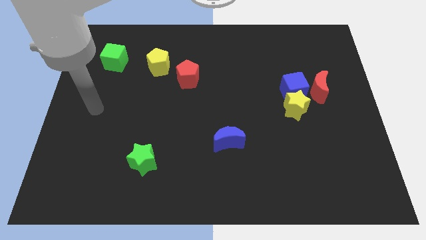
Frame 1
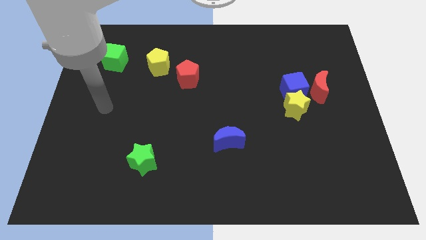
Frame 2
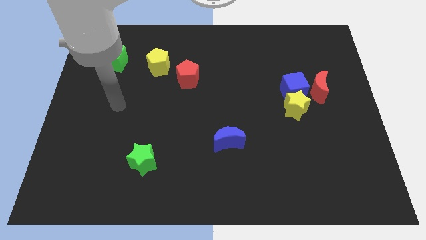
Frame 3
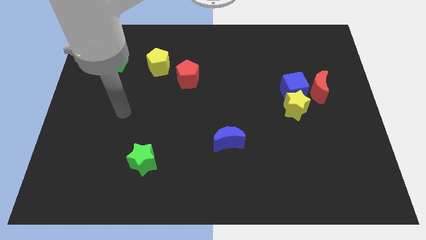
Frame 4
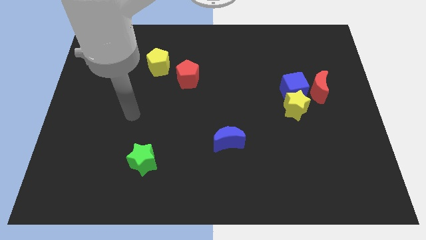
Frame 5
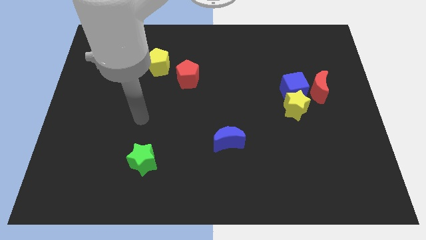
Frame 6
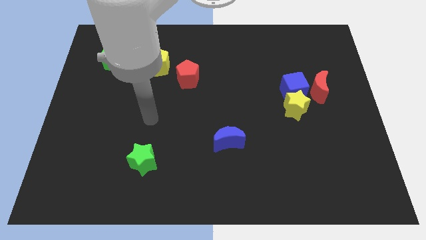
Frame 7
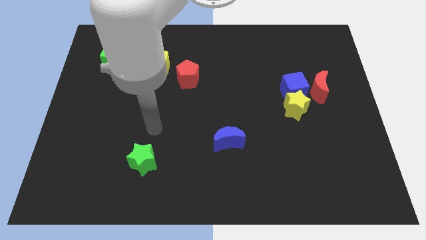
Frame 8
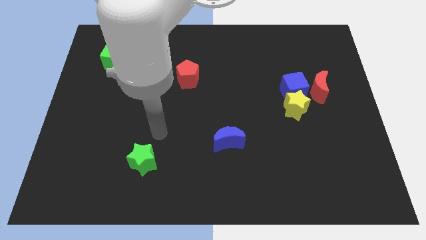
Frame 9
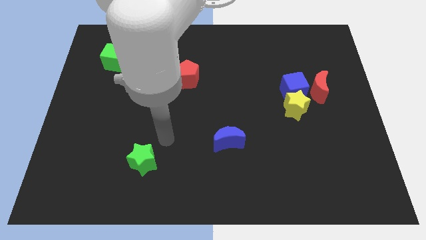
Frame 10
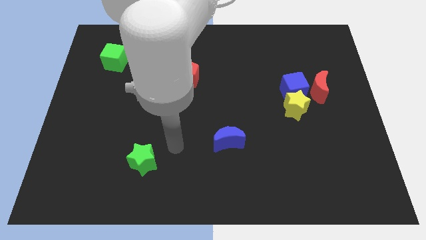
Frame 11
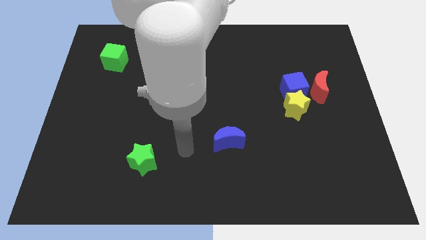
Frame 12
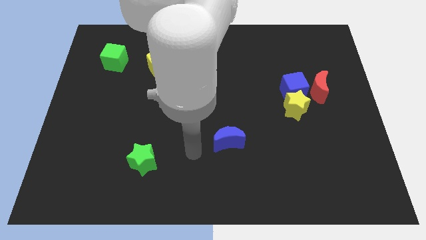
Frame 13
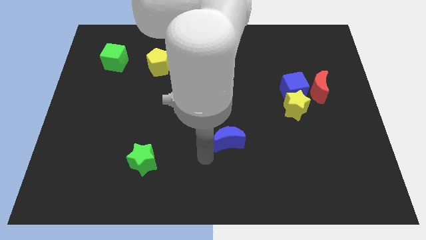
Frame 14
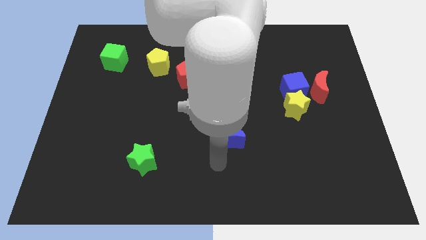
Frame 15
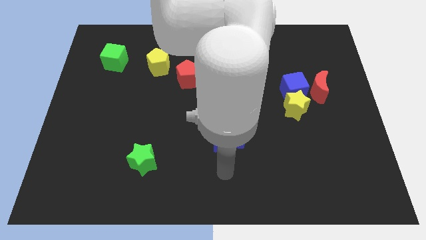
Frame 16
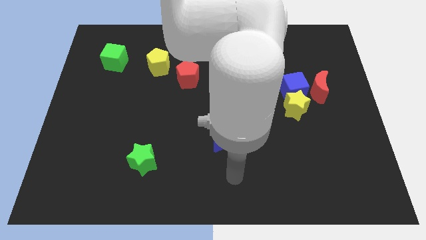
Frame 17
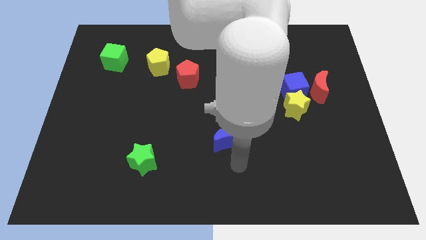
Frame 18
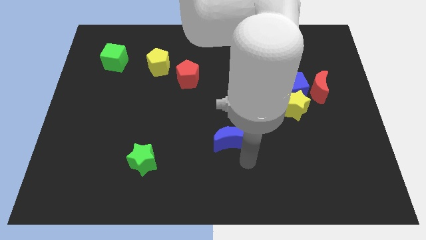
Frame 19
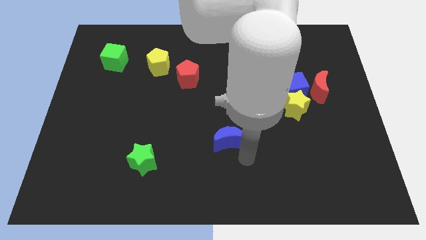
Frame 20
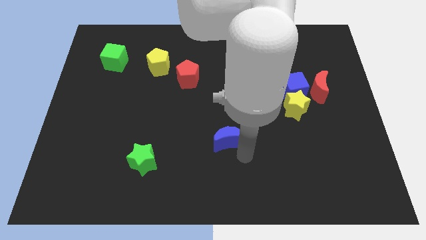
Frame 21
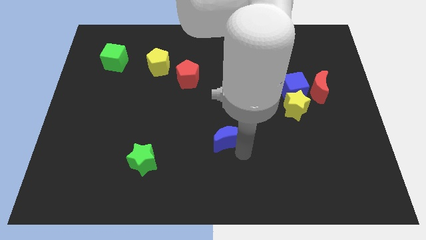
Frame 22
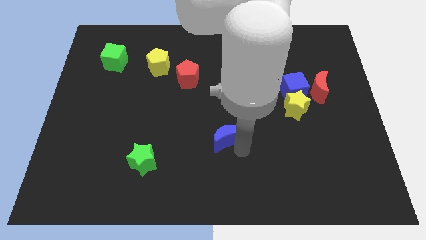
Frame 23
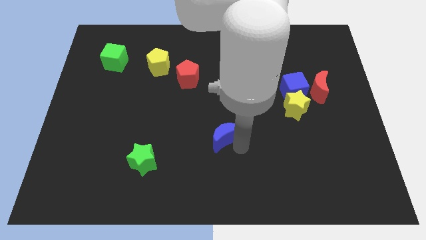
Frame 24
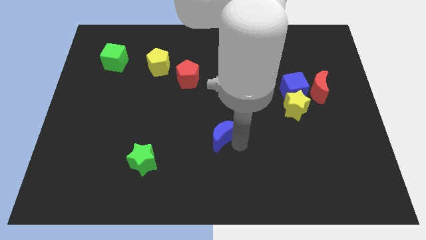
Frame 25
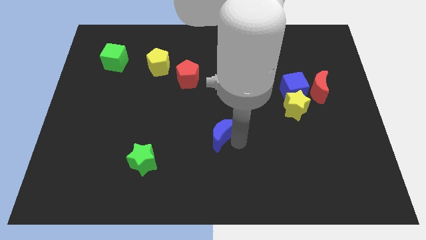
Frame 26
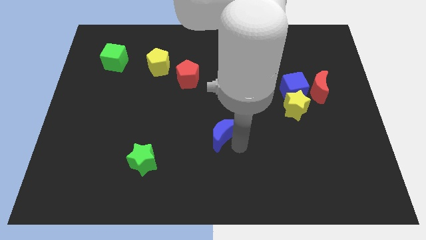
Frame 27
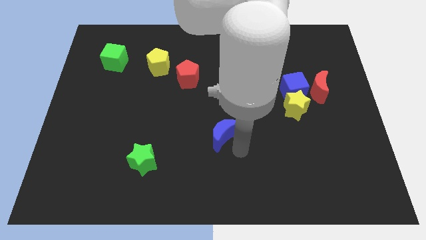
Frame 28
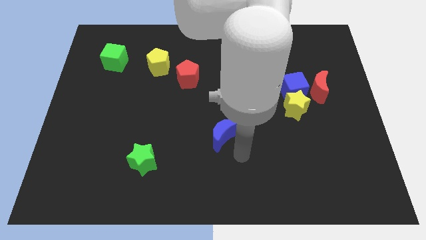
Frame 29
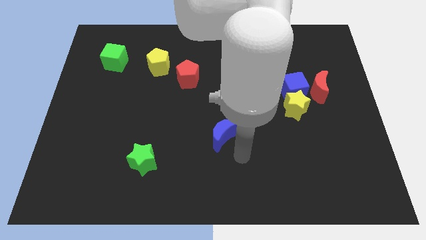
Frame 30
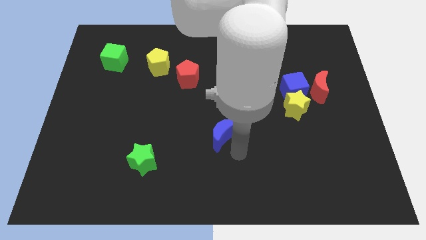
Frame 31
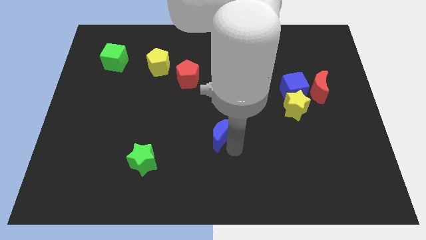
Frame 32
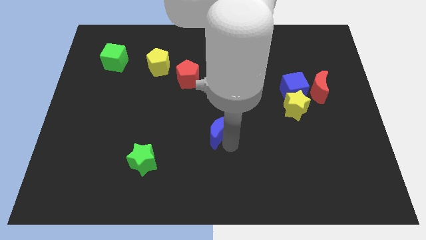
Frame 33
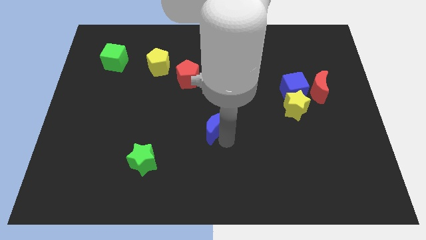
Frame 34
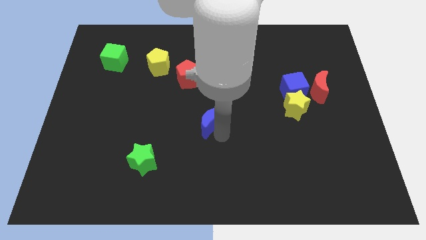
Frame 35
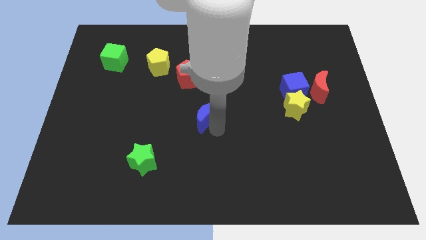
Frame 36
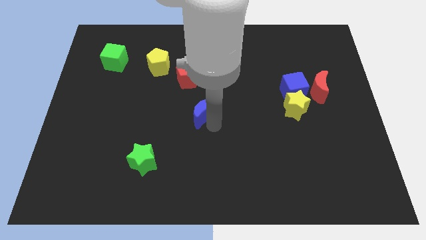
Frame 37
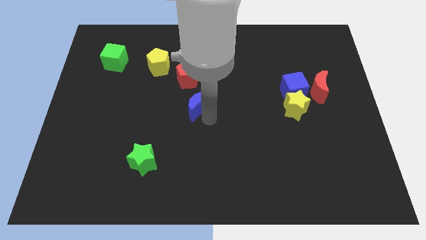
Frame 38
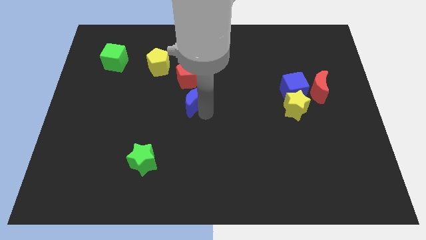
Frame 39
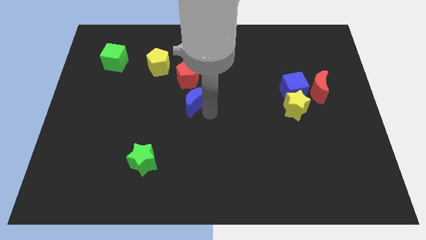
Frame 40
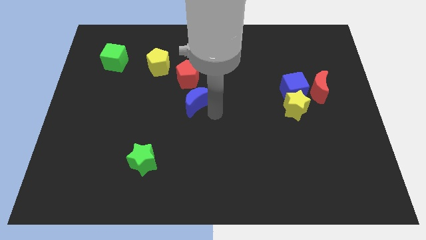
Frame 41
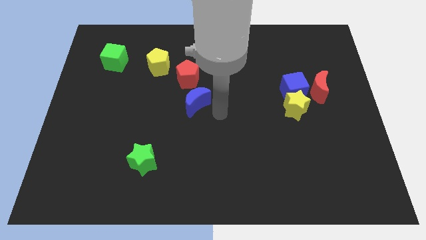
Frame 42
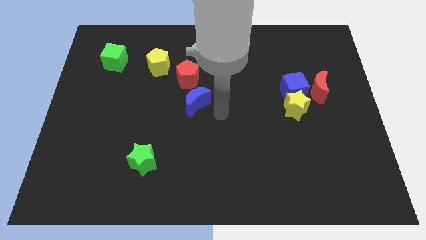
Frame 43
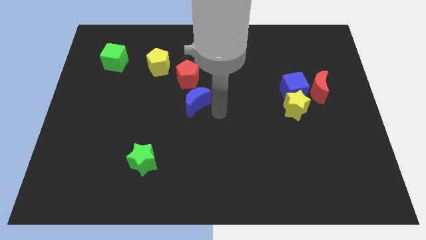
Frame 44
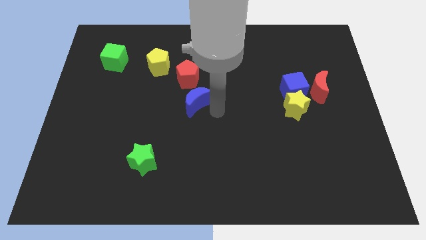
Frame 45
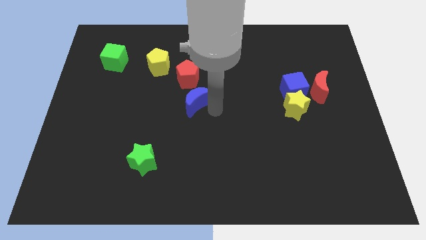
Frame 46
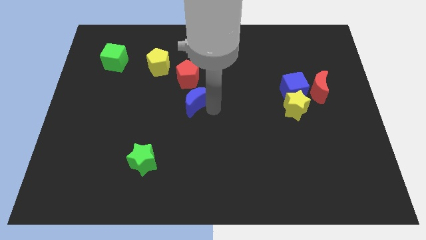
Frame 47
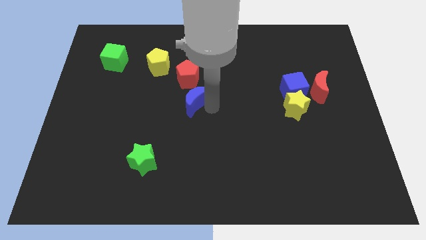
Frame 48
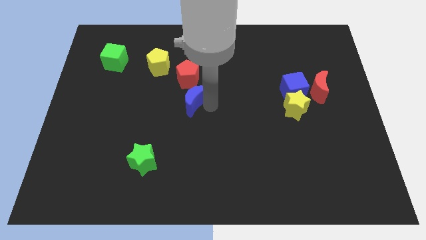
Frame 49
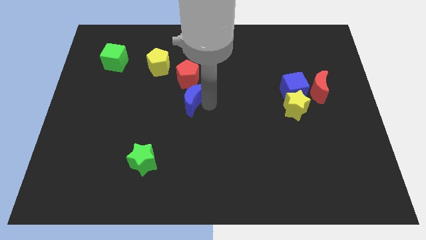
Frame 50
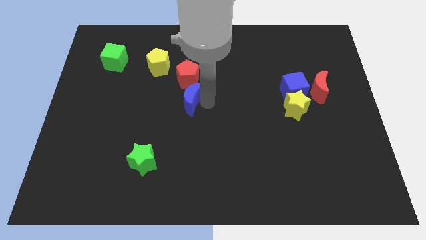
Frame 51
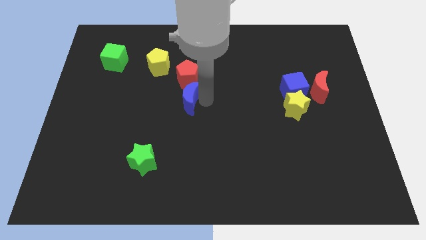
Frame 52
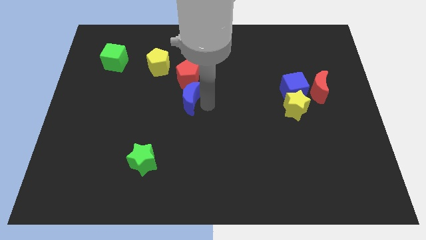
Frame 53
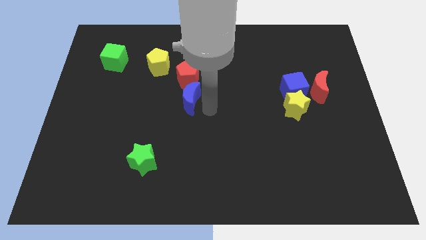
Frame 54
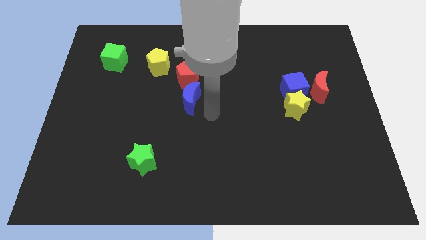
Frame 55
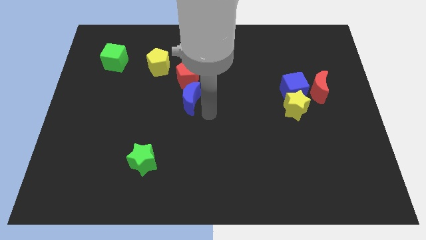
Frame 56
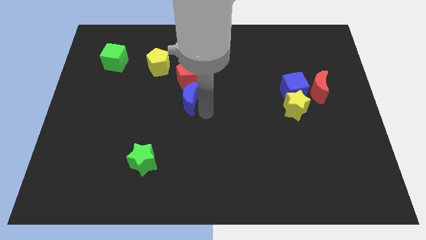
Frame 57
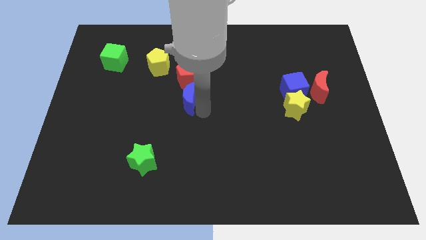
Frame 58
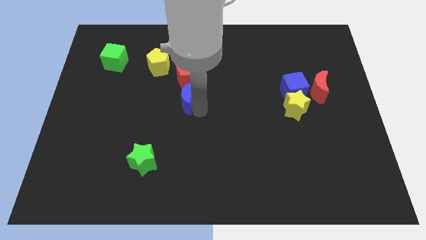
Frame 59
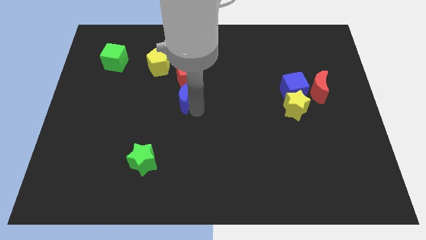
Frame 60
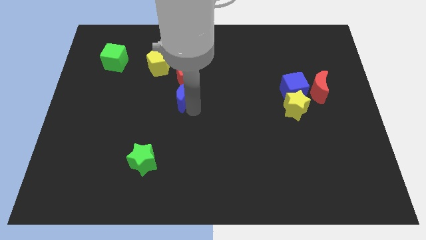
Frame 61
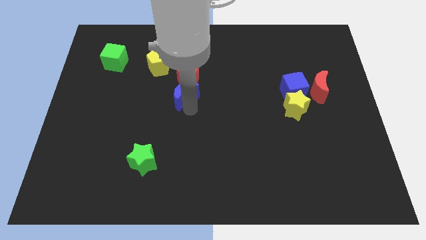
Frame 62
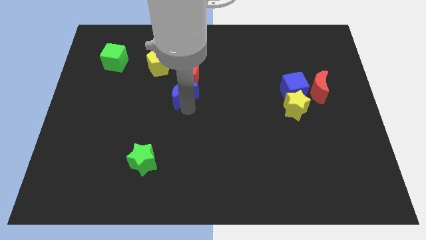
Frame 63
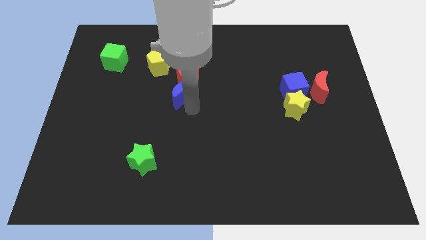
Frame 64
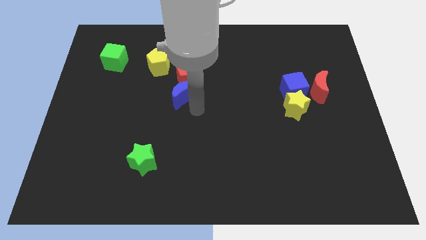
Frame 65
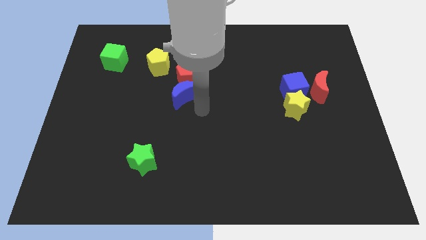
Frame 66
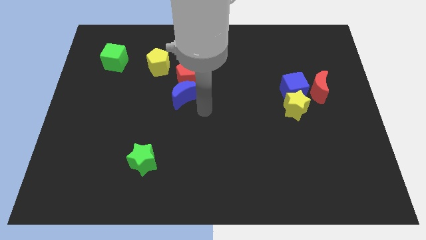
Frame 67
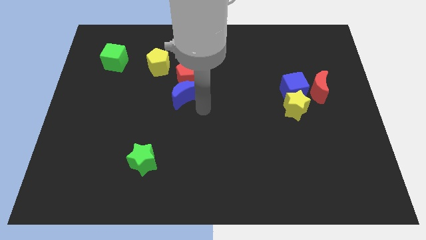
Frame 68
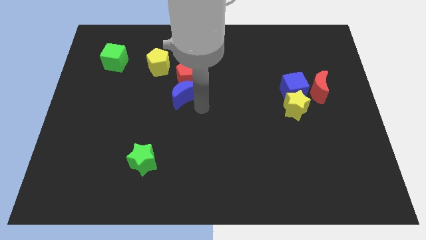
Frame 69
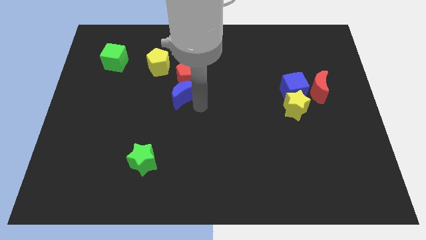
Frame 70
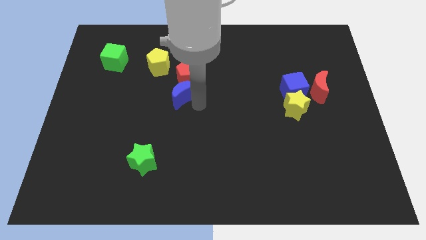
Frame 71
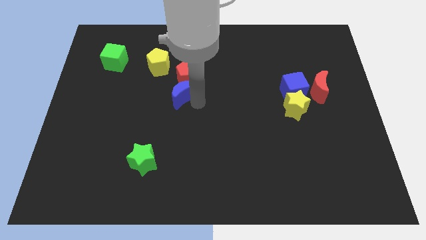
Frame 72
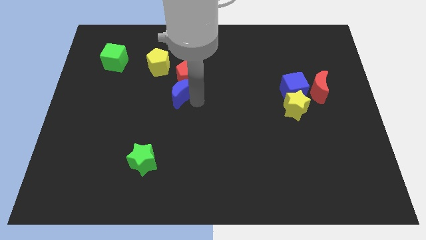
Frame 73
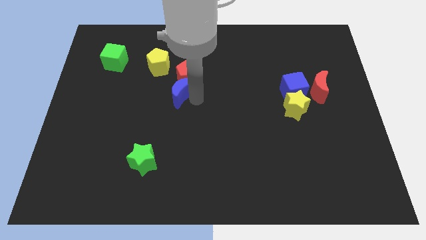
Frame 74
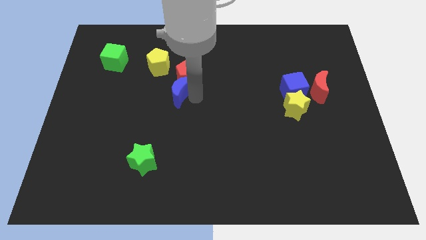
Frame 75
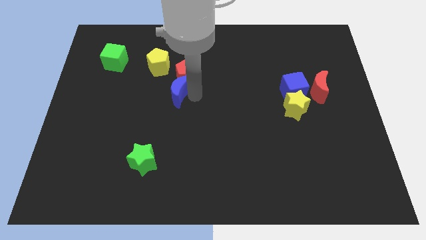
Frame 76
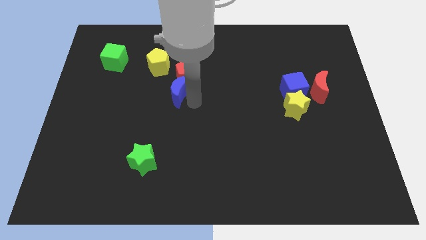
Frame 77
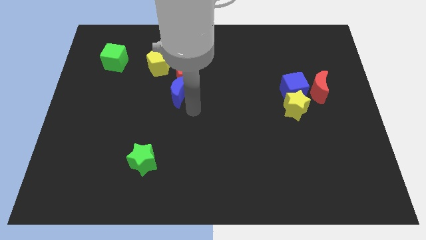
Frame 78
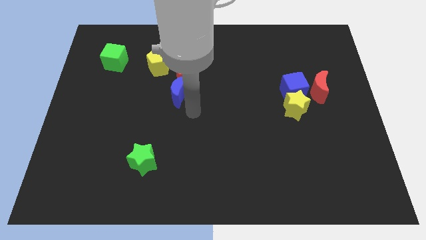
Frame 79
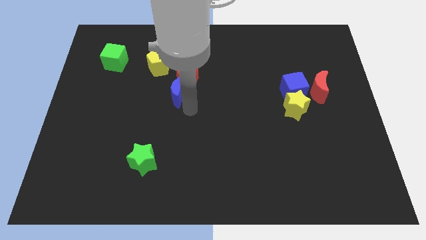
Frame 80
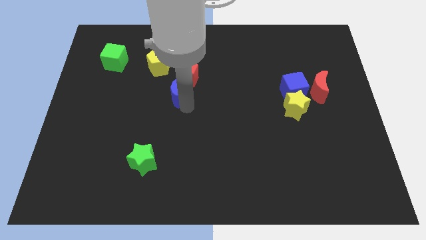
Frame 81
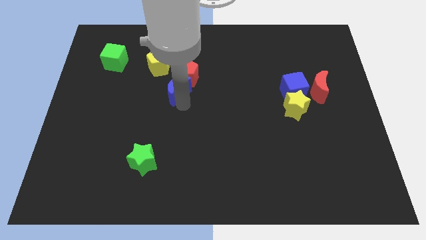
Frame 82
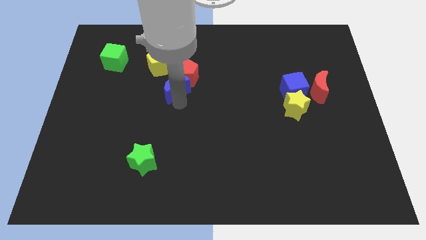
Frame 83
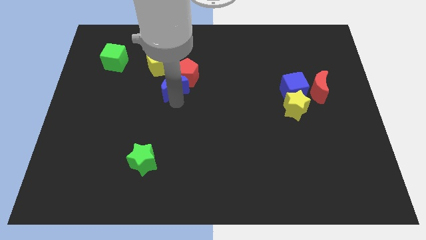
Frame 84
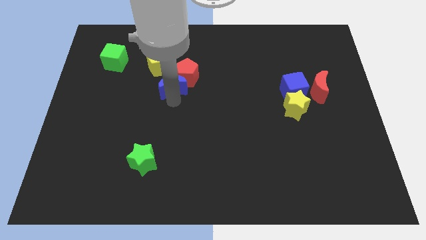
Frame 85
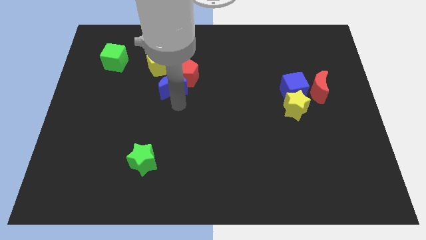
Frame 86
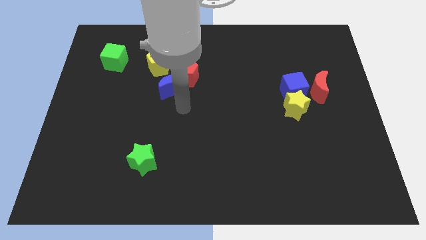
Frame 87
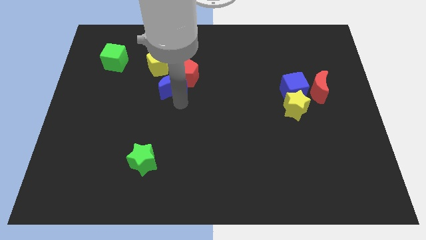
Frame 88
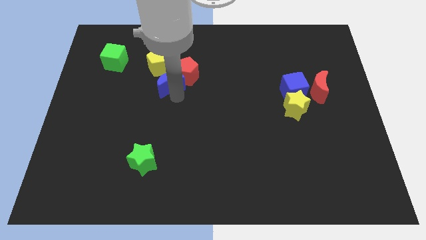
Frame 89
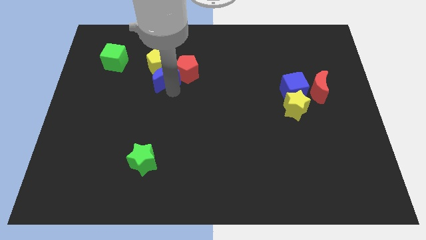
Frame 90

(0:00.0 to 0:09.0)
move the blue moon next to the yellow pentagon
